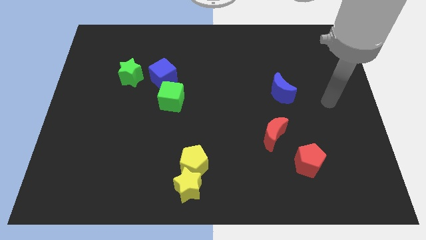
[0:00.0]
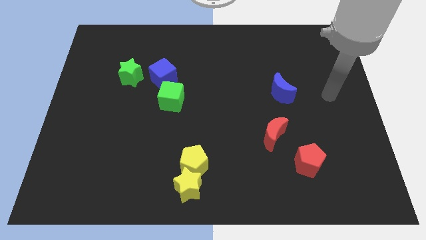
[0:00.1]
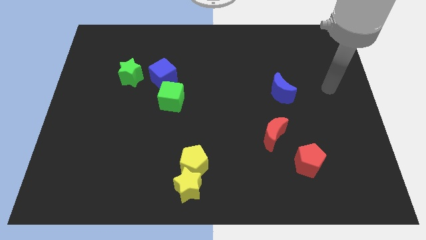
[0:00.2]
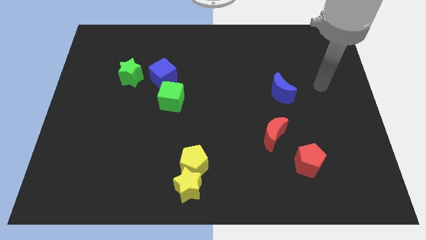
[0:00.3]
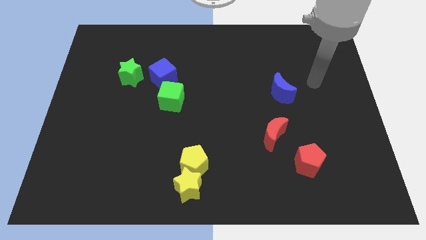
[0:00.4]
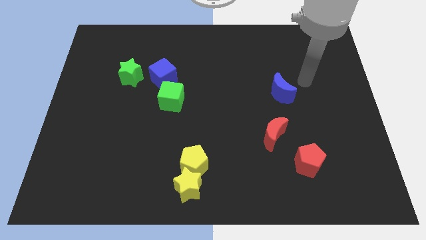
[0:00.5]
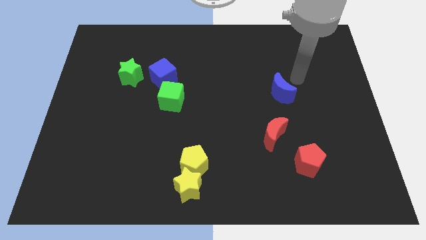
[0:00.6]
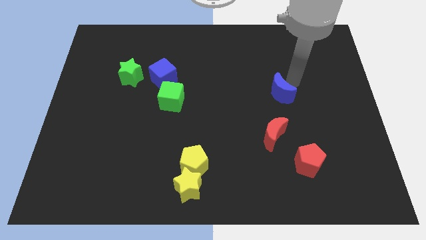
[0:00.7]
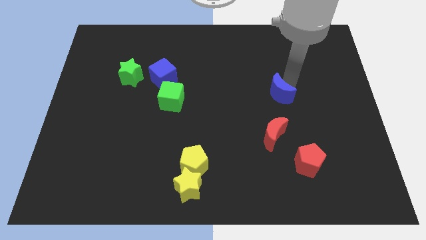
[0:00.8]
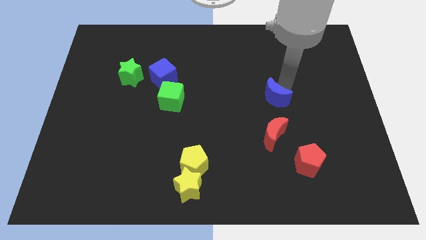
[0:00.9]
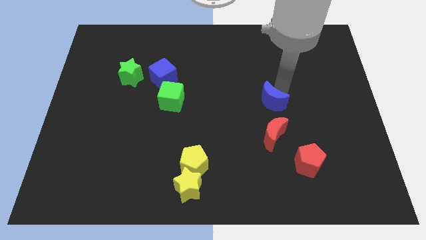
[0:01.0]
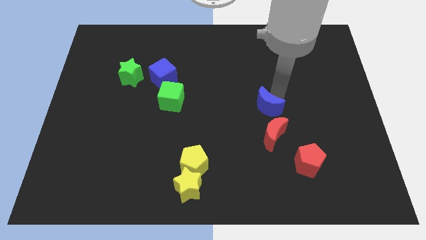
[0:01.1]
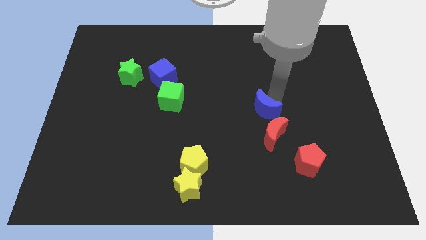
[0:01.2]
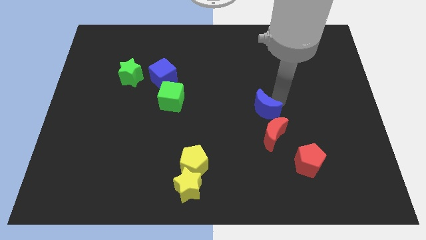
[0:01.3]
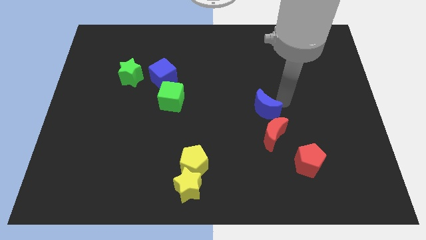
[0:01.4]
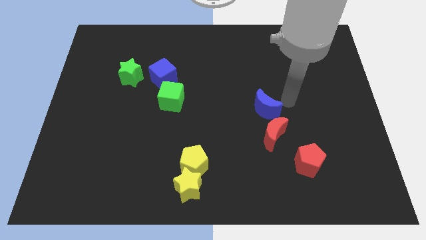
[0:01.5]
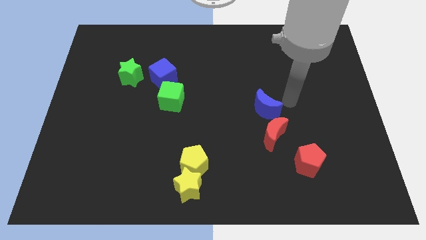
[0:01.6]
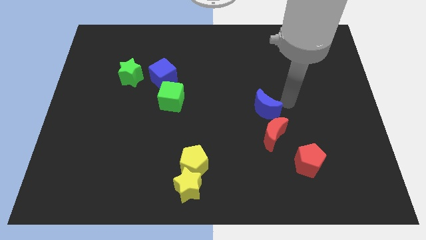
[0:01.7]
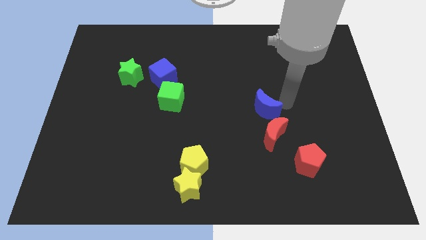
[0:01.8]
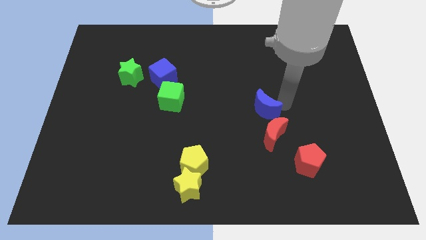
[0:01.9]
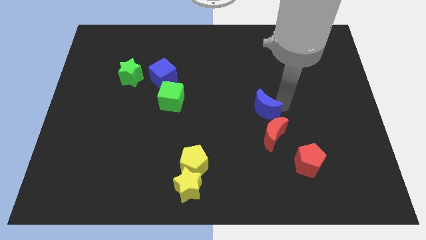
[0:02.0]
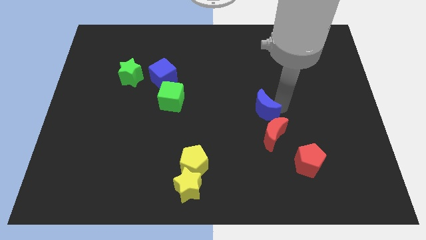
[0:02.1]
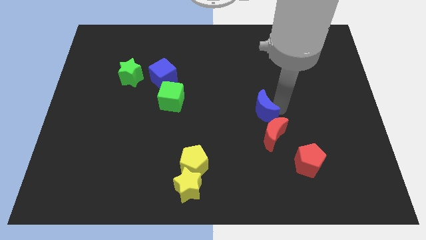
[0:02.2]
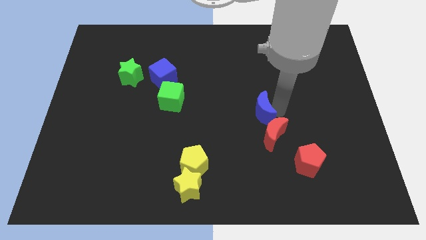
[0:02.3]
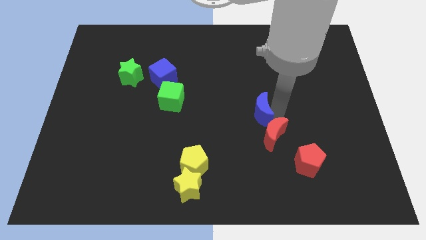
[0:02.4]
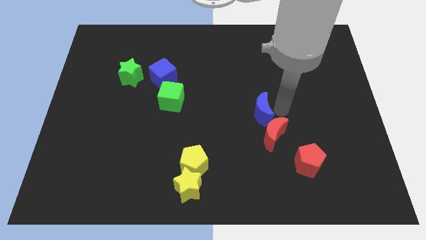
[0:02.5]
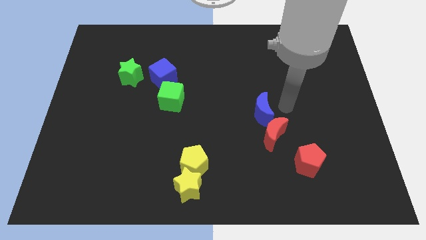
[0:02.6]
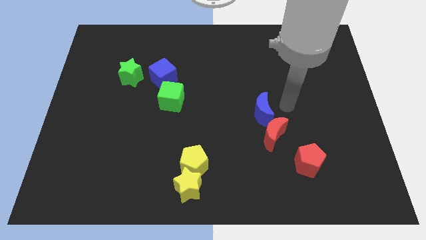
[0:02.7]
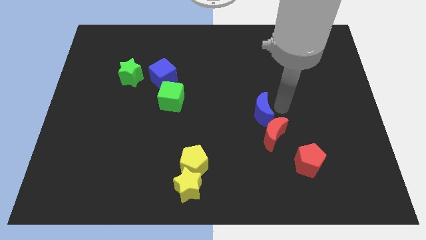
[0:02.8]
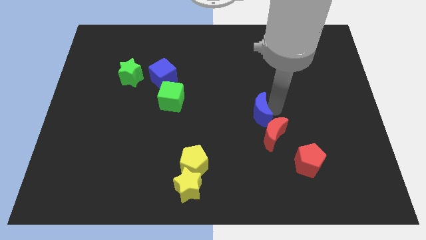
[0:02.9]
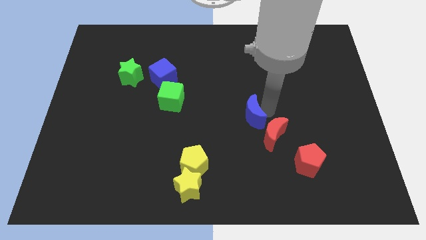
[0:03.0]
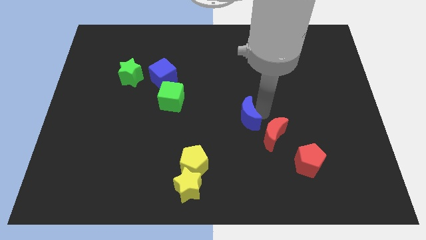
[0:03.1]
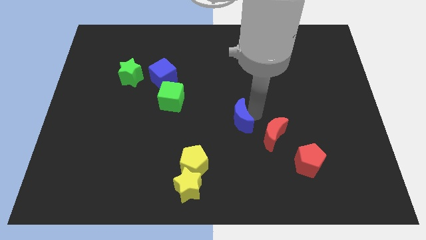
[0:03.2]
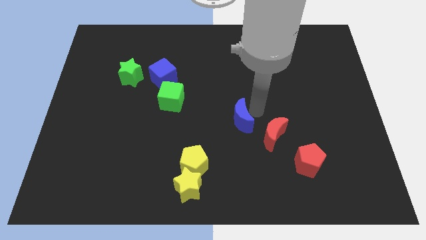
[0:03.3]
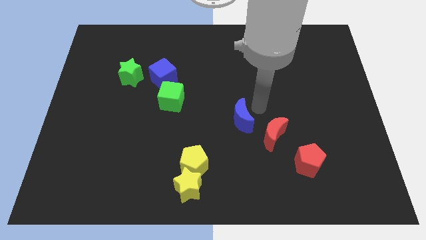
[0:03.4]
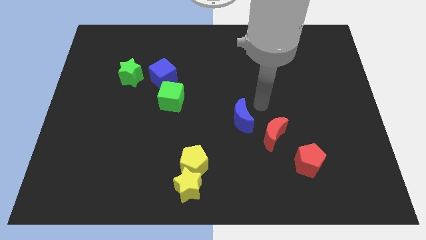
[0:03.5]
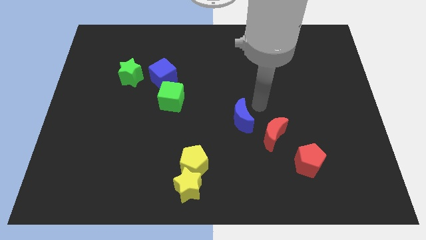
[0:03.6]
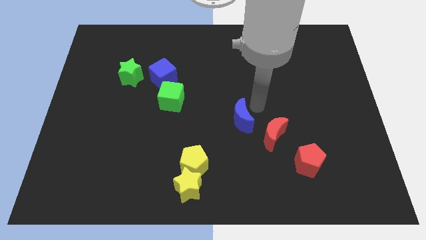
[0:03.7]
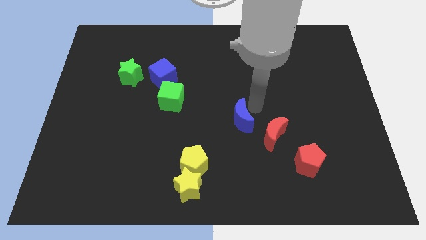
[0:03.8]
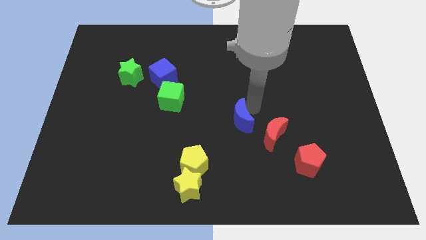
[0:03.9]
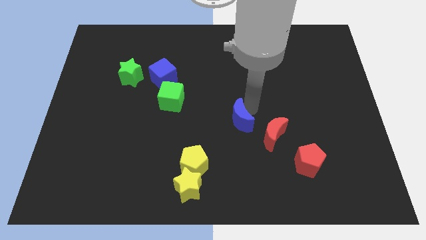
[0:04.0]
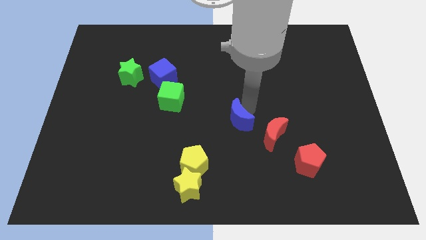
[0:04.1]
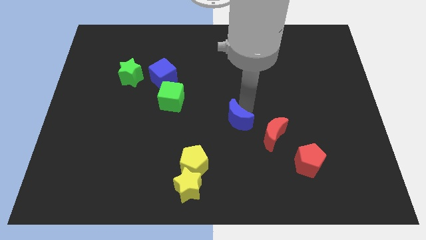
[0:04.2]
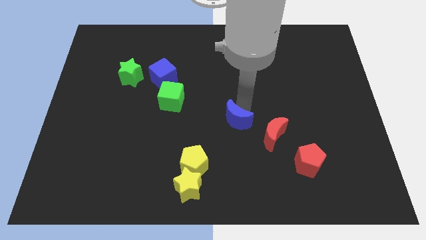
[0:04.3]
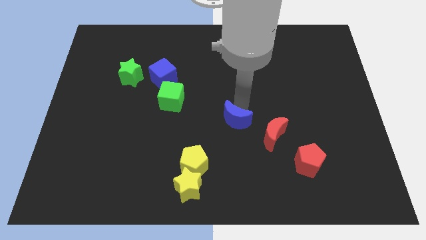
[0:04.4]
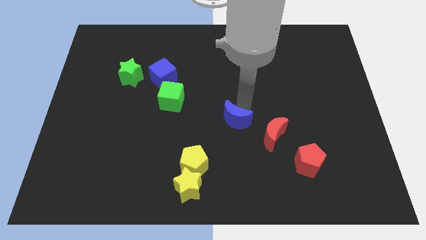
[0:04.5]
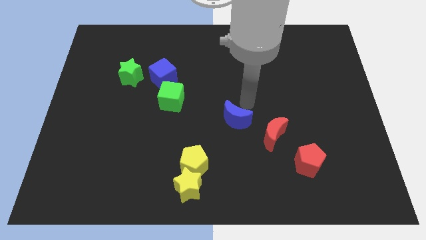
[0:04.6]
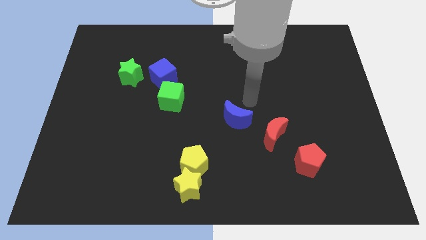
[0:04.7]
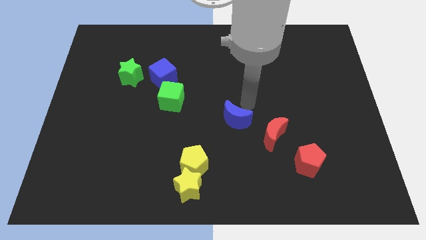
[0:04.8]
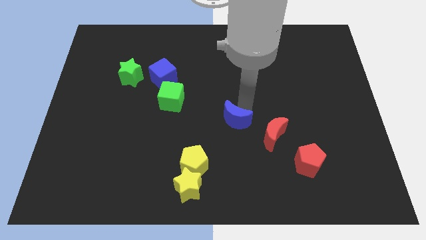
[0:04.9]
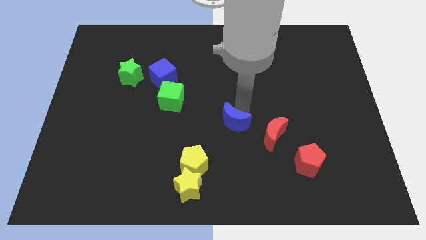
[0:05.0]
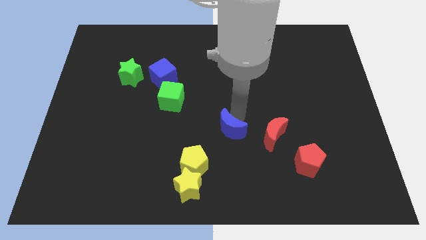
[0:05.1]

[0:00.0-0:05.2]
slide the blue moon to the top right side of the yellow pentagon

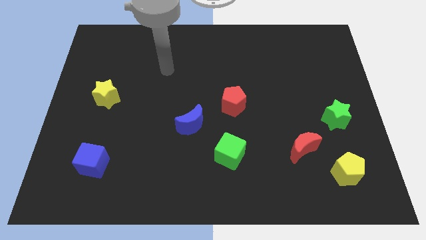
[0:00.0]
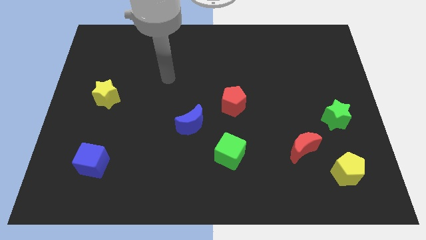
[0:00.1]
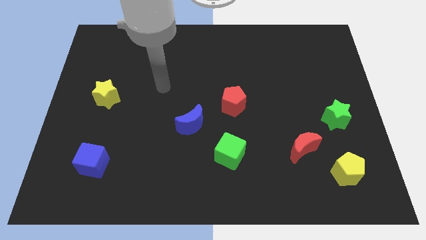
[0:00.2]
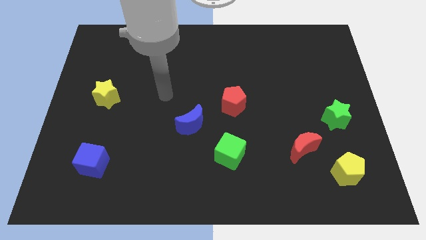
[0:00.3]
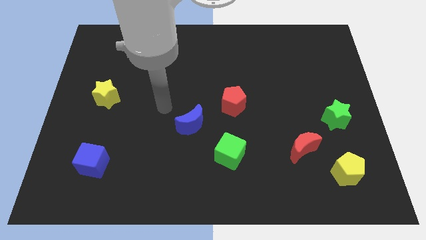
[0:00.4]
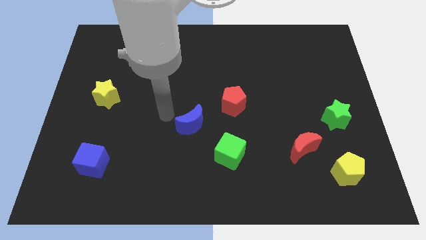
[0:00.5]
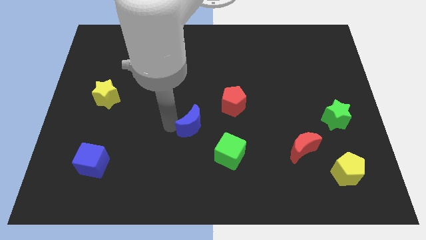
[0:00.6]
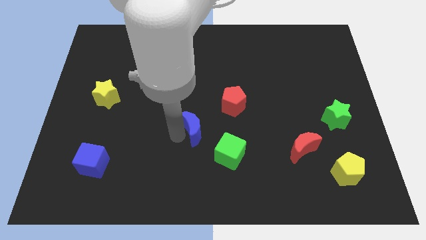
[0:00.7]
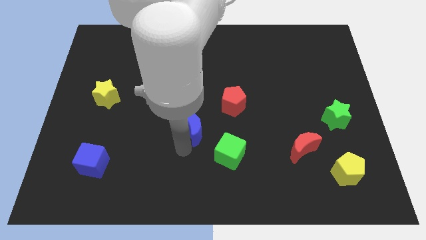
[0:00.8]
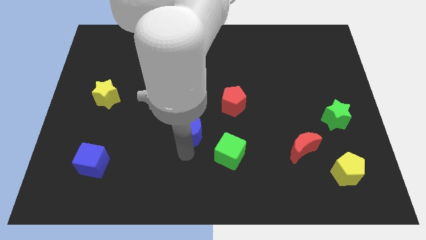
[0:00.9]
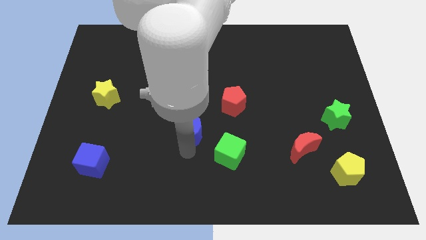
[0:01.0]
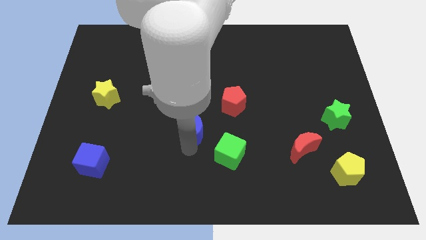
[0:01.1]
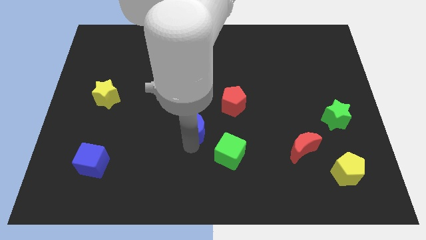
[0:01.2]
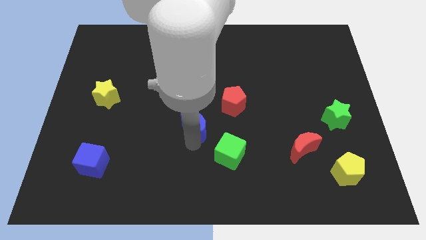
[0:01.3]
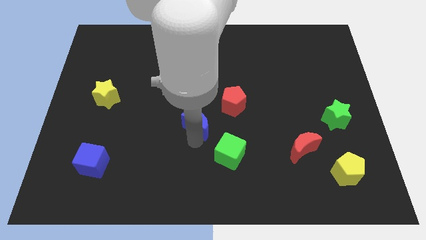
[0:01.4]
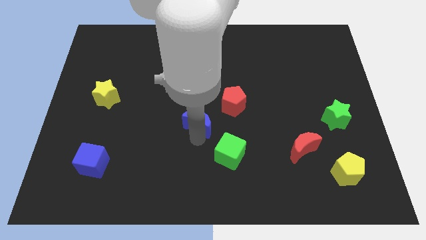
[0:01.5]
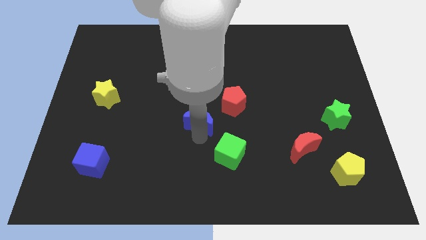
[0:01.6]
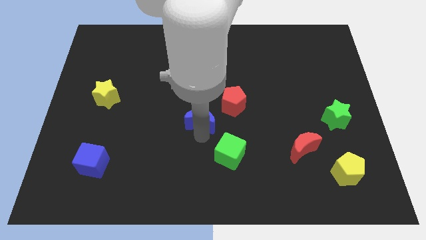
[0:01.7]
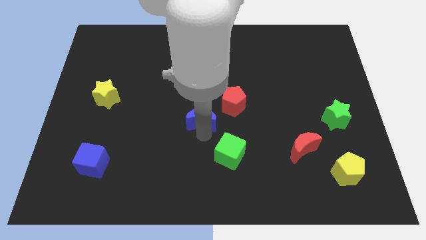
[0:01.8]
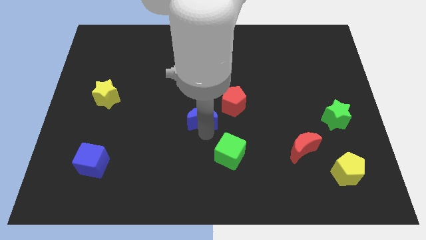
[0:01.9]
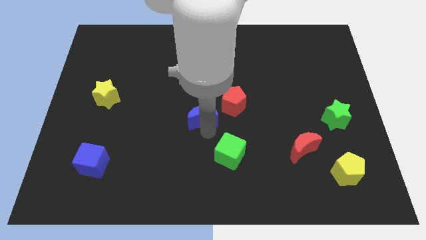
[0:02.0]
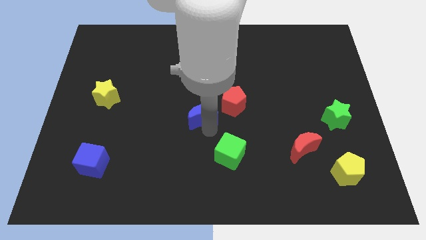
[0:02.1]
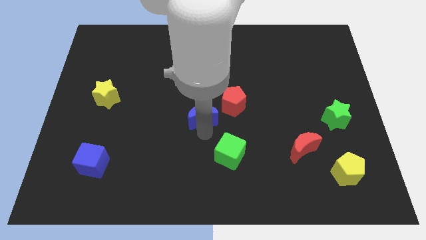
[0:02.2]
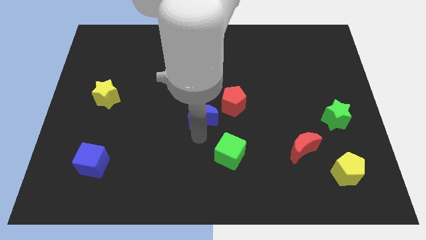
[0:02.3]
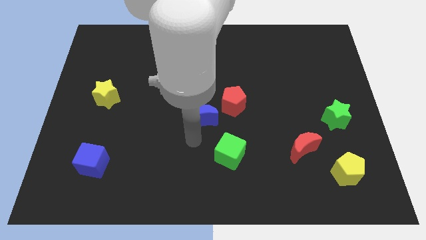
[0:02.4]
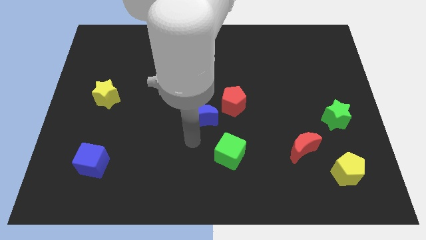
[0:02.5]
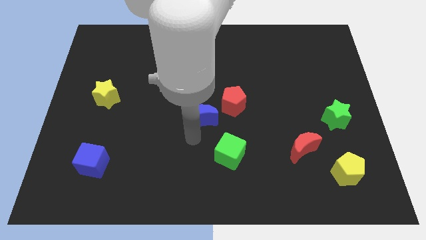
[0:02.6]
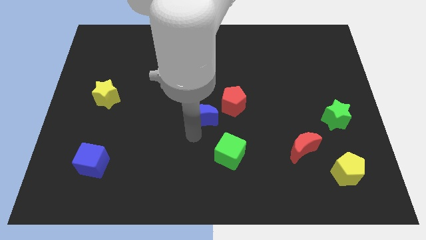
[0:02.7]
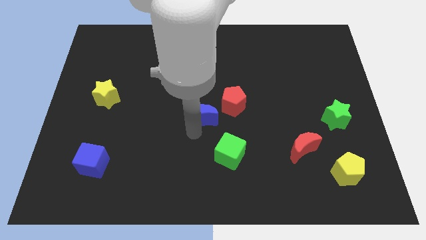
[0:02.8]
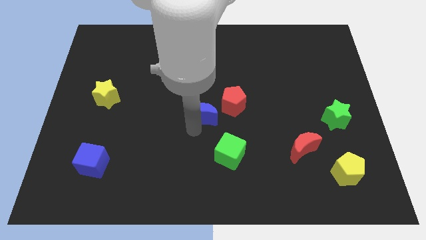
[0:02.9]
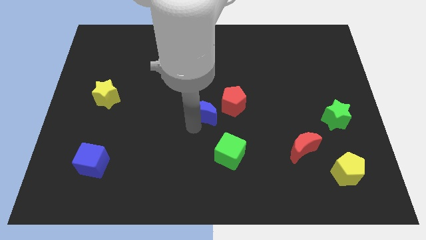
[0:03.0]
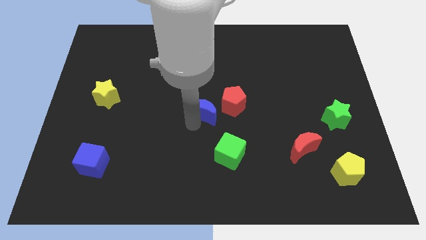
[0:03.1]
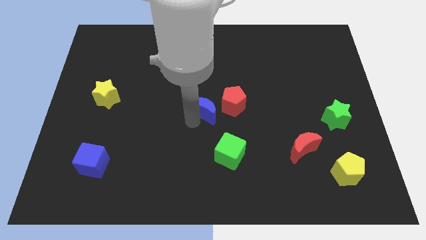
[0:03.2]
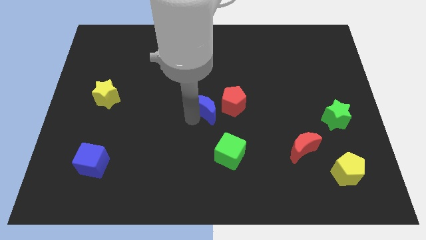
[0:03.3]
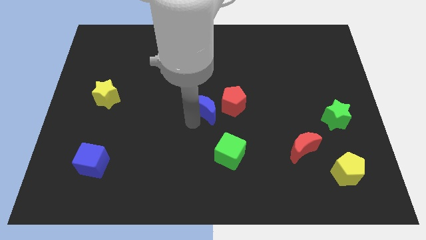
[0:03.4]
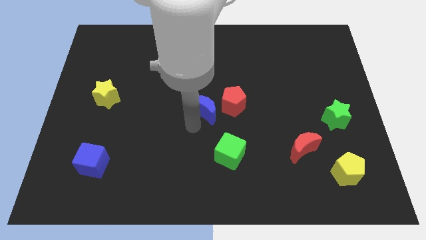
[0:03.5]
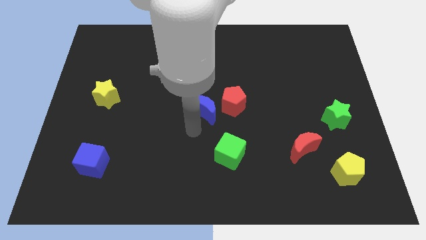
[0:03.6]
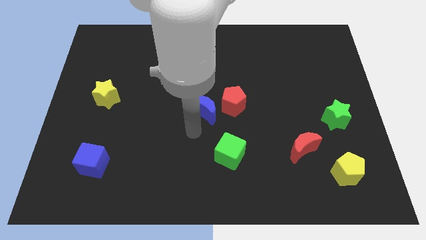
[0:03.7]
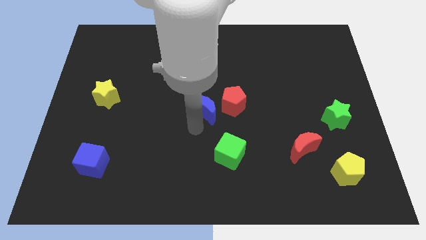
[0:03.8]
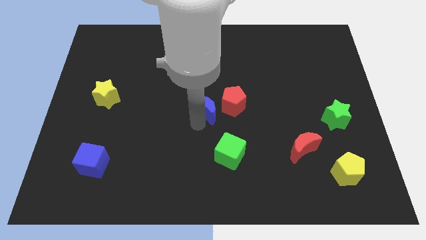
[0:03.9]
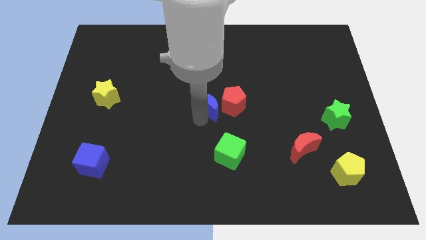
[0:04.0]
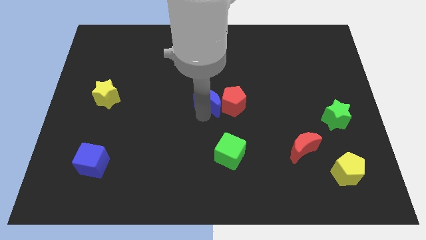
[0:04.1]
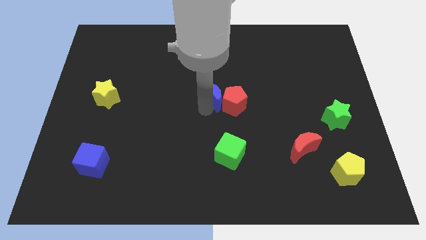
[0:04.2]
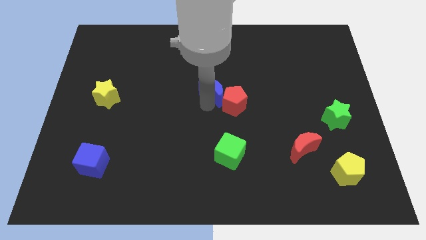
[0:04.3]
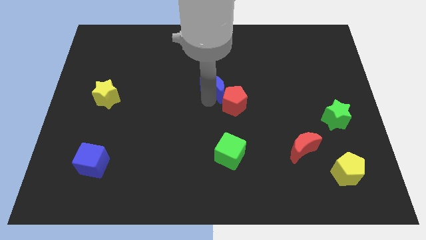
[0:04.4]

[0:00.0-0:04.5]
push the blue moon to the top side of the red pentagon
